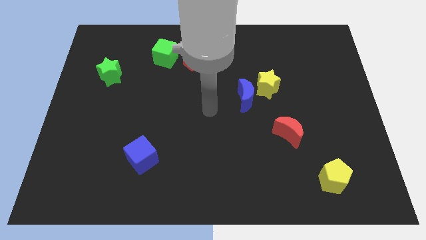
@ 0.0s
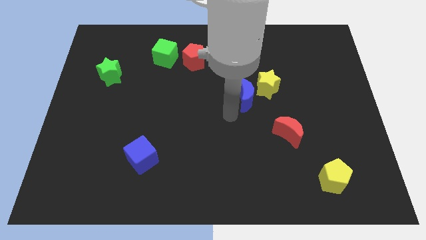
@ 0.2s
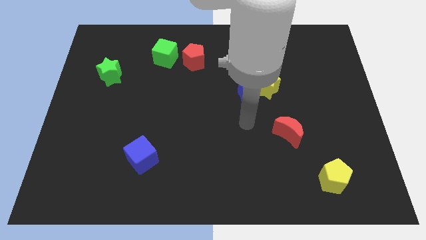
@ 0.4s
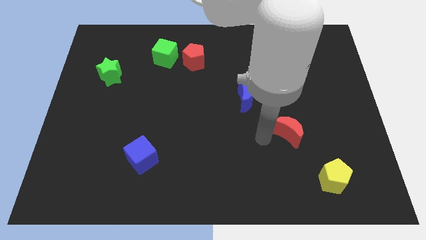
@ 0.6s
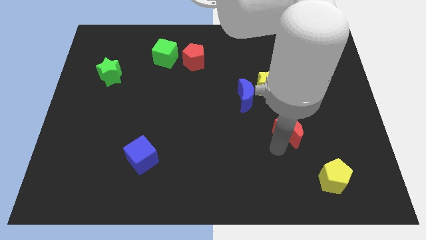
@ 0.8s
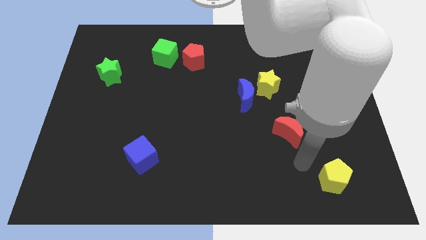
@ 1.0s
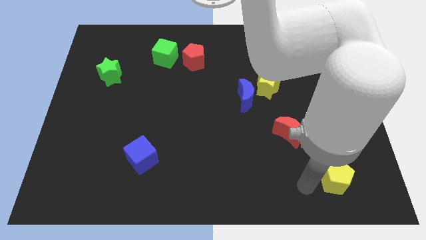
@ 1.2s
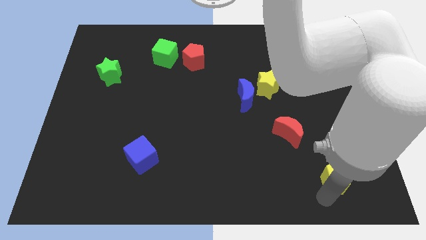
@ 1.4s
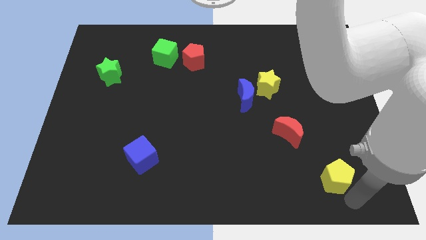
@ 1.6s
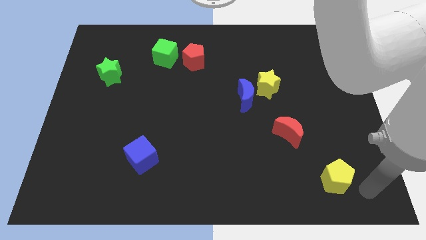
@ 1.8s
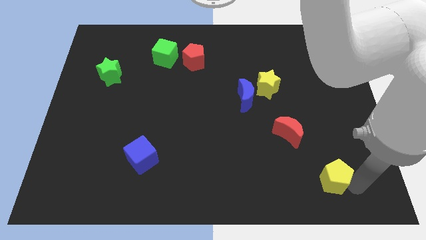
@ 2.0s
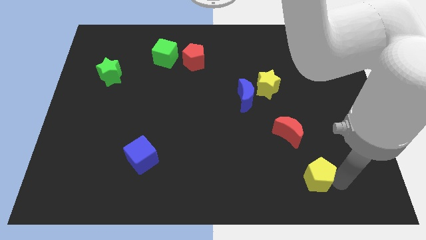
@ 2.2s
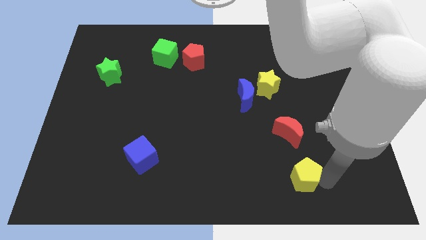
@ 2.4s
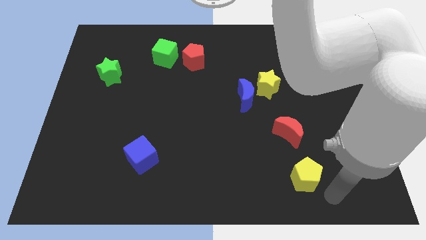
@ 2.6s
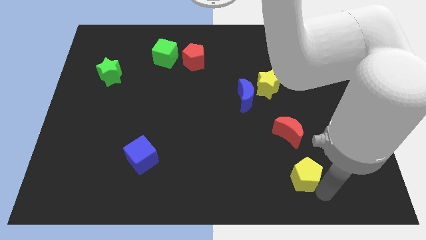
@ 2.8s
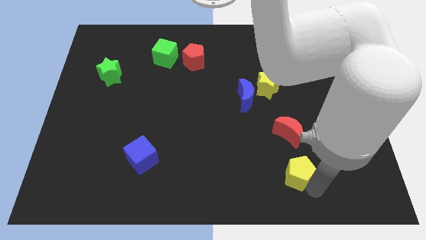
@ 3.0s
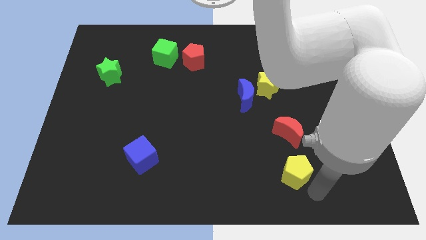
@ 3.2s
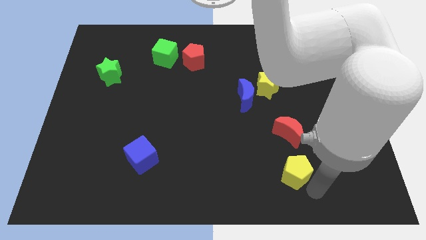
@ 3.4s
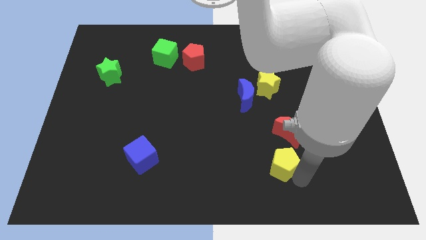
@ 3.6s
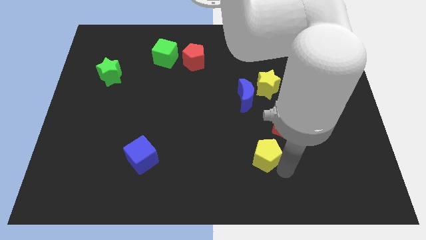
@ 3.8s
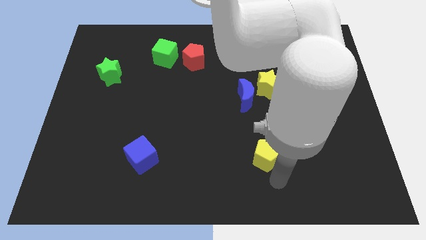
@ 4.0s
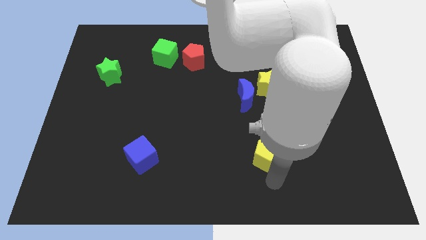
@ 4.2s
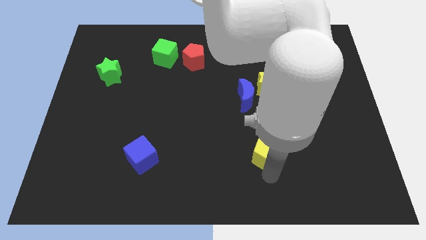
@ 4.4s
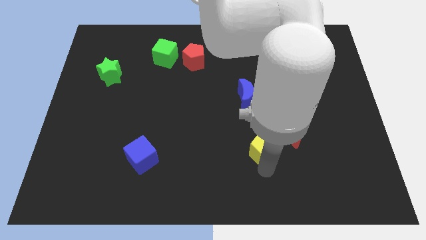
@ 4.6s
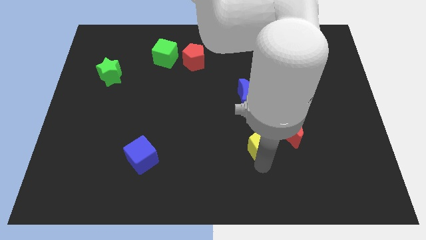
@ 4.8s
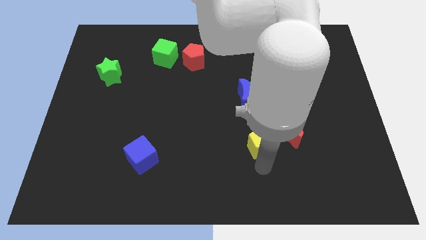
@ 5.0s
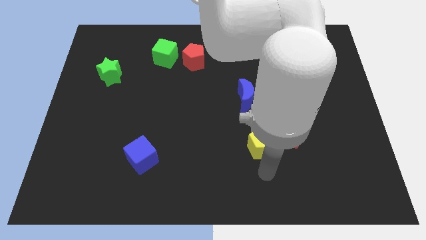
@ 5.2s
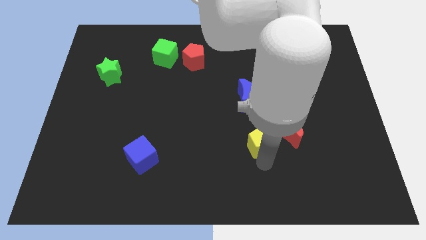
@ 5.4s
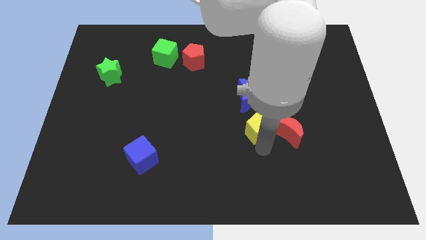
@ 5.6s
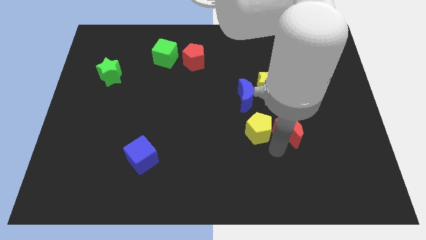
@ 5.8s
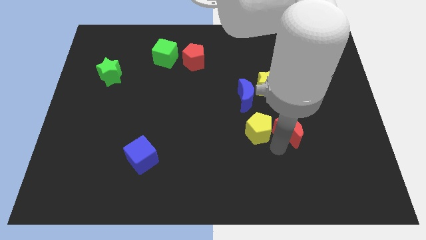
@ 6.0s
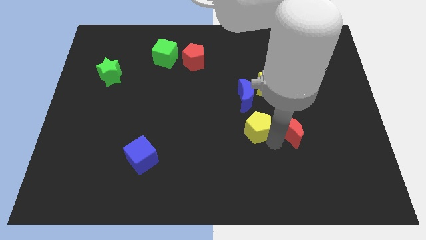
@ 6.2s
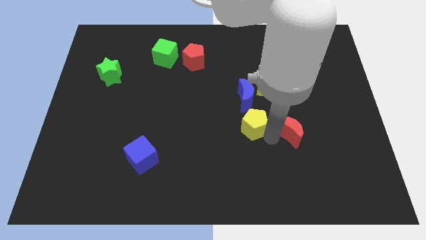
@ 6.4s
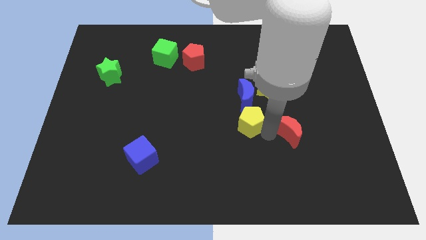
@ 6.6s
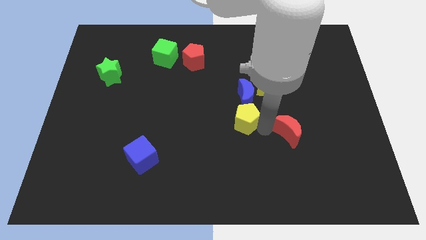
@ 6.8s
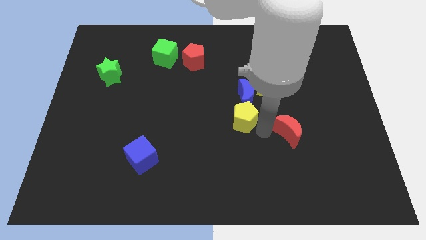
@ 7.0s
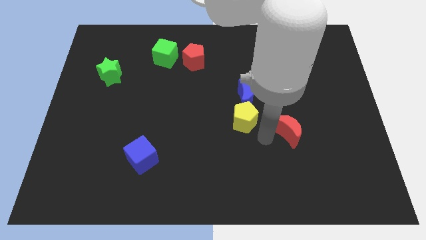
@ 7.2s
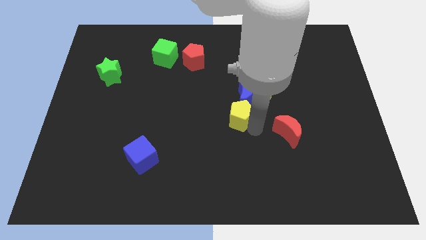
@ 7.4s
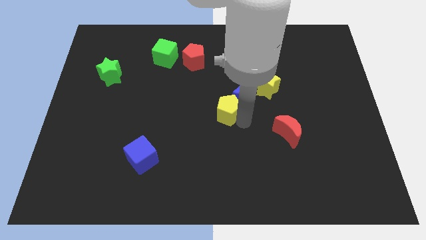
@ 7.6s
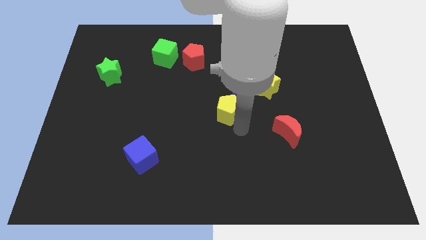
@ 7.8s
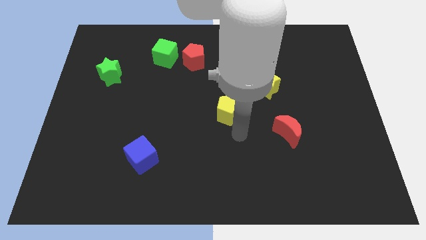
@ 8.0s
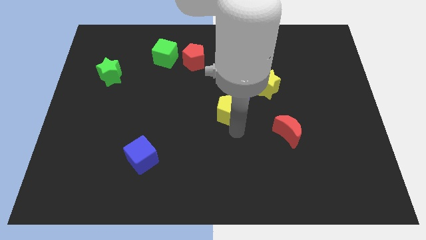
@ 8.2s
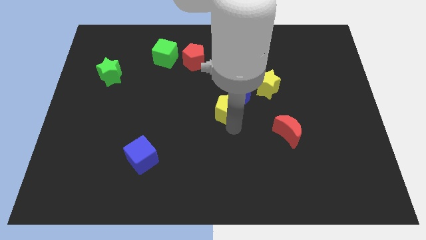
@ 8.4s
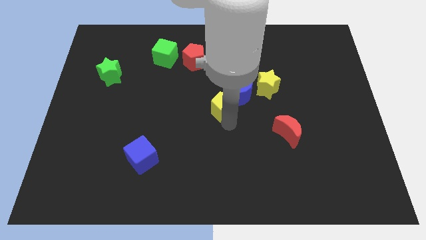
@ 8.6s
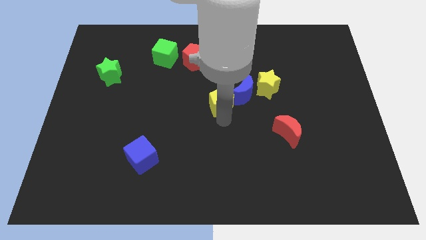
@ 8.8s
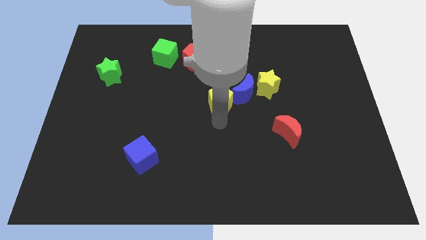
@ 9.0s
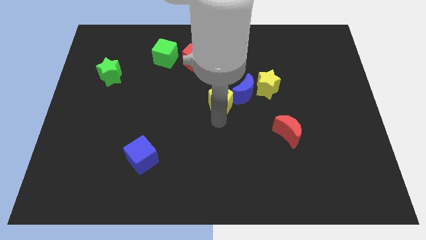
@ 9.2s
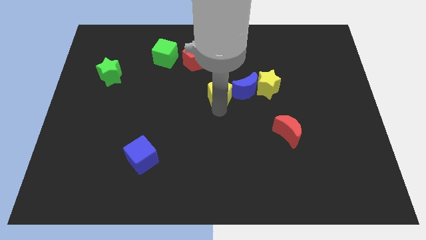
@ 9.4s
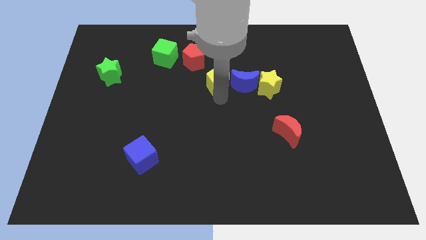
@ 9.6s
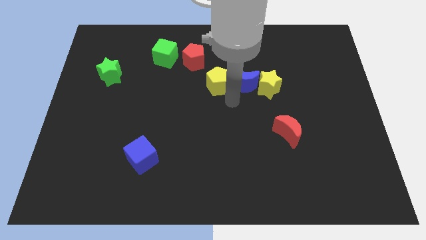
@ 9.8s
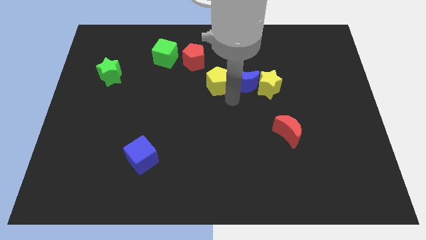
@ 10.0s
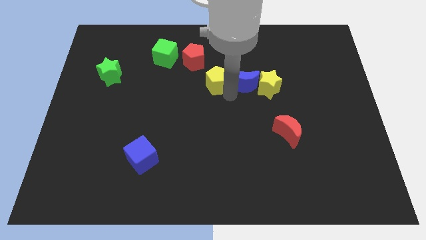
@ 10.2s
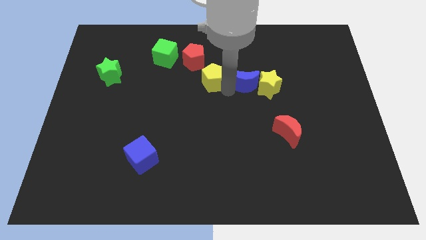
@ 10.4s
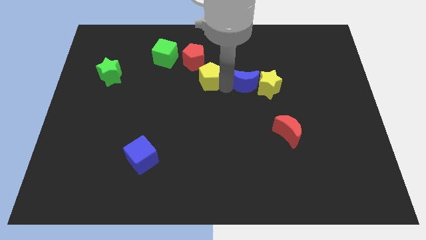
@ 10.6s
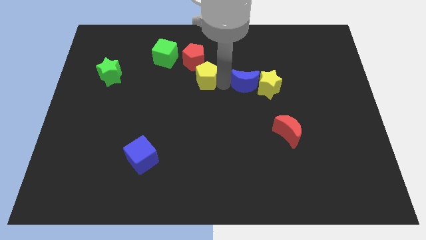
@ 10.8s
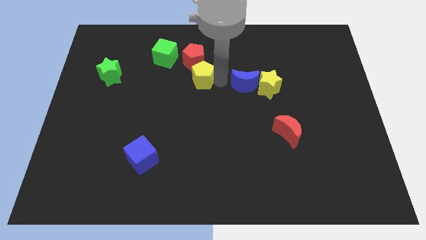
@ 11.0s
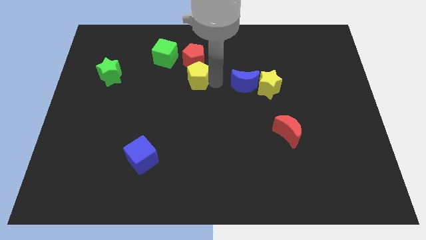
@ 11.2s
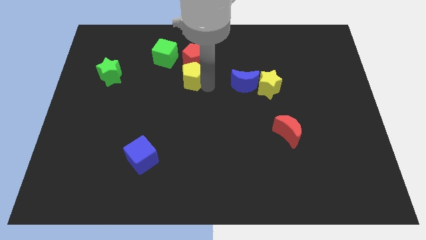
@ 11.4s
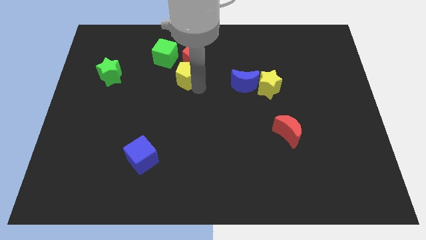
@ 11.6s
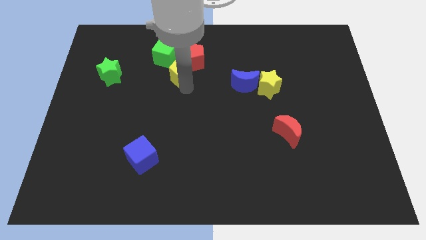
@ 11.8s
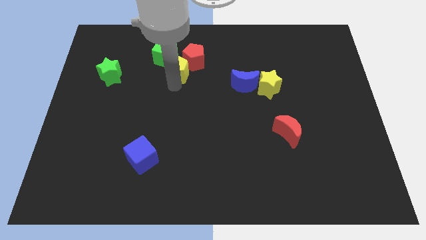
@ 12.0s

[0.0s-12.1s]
slide the yellow pentagon next to the red pentagon

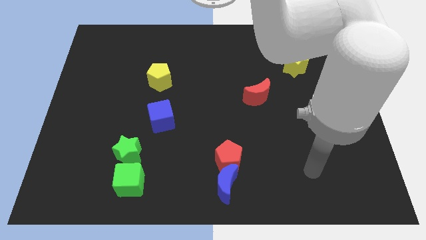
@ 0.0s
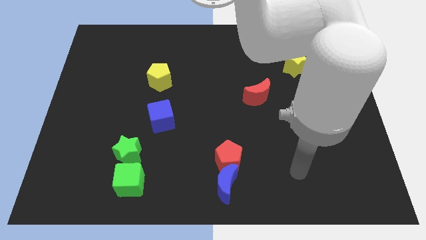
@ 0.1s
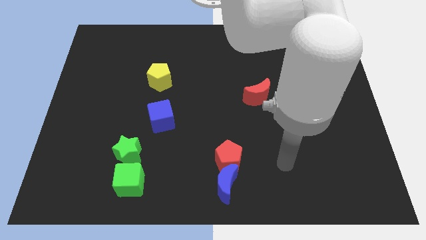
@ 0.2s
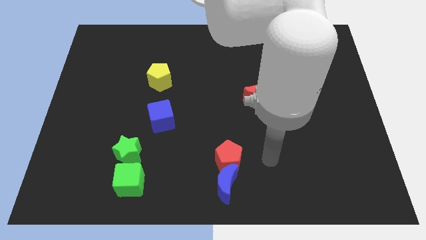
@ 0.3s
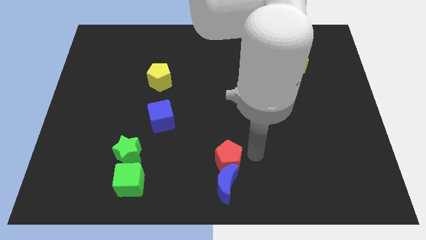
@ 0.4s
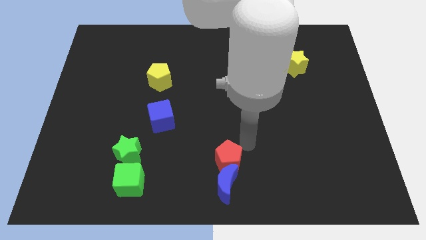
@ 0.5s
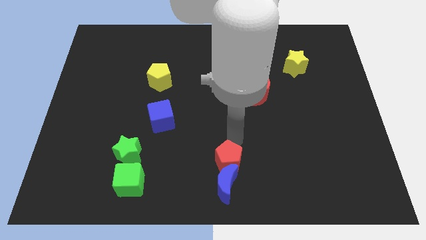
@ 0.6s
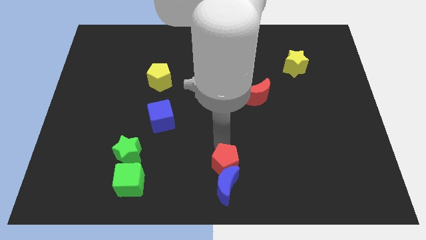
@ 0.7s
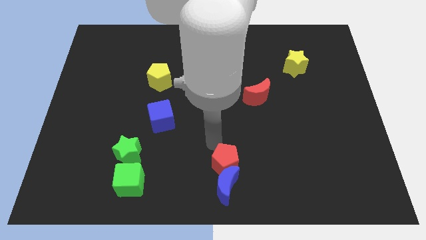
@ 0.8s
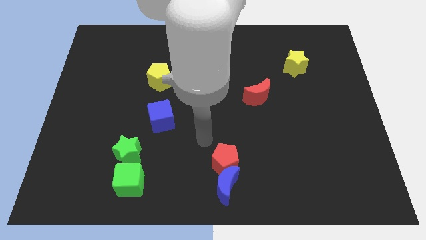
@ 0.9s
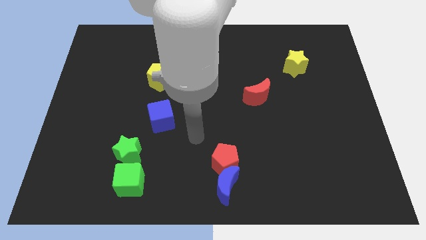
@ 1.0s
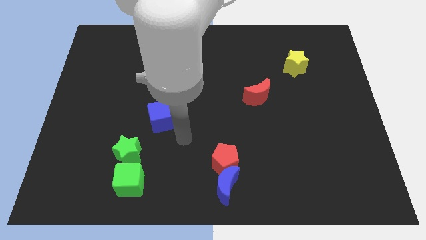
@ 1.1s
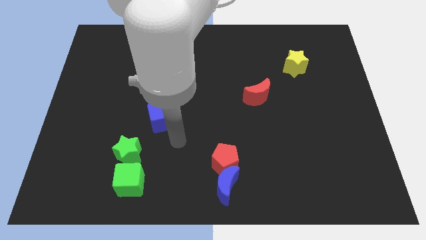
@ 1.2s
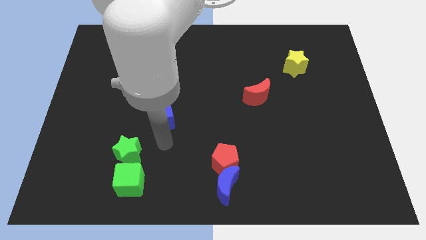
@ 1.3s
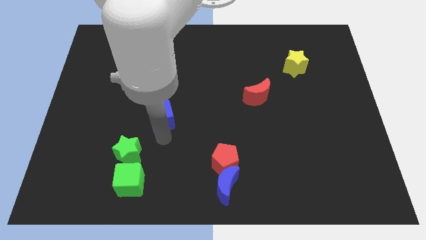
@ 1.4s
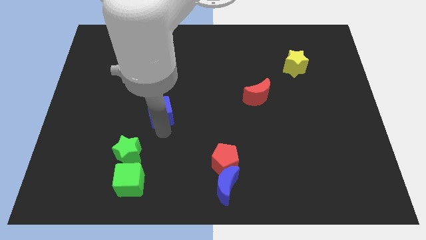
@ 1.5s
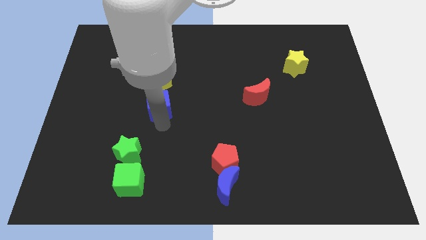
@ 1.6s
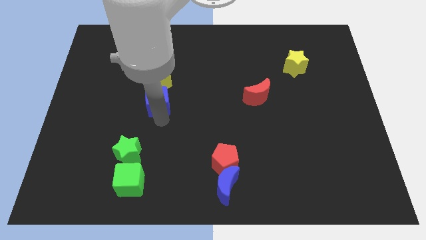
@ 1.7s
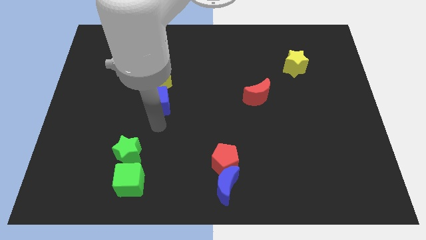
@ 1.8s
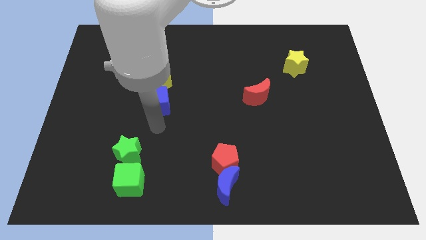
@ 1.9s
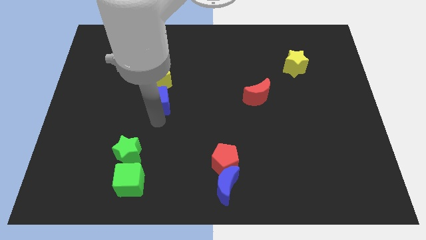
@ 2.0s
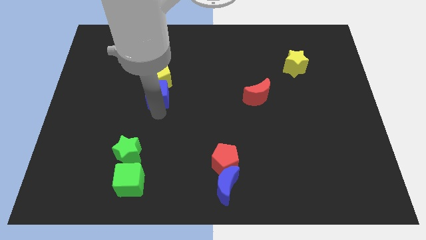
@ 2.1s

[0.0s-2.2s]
slide the blue cube close to the yellow pentagon
